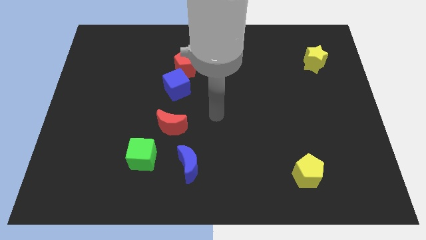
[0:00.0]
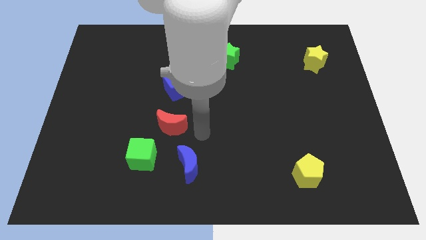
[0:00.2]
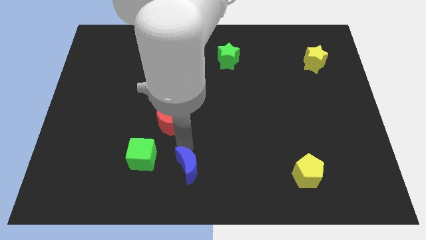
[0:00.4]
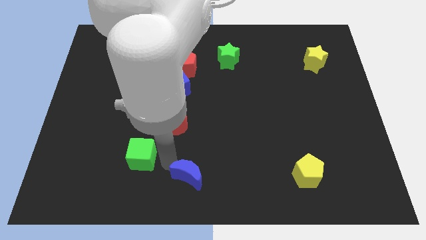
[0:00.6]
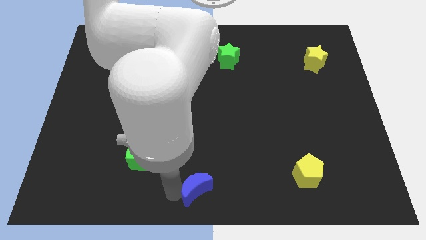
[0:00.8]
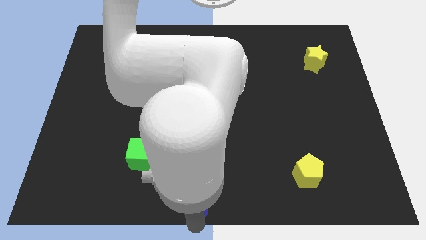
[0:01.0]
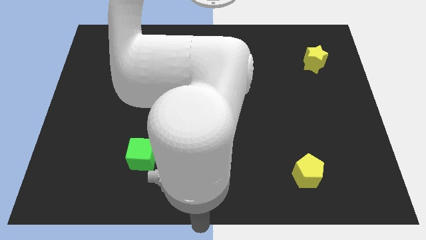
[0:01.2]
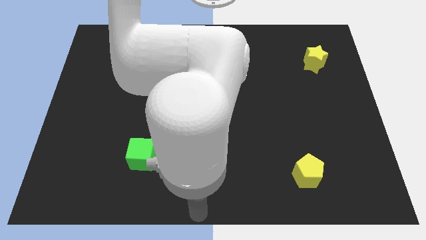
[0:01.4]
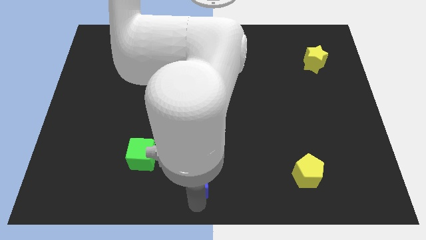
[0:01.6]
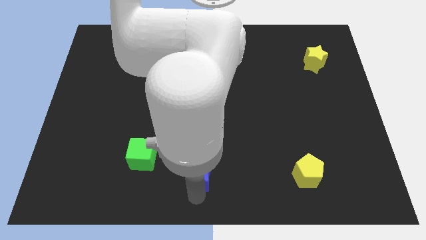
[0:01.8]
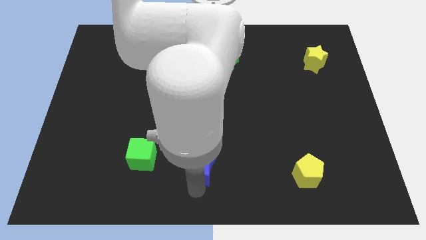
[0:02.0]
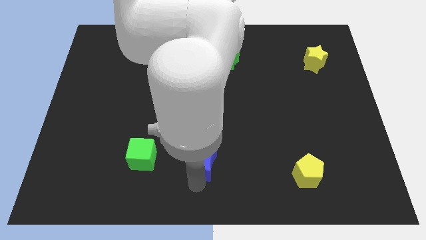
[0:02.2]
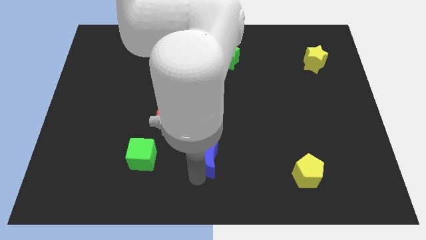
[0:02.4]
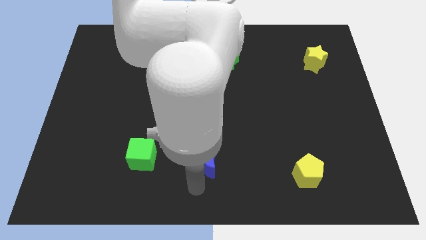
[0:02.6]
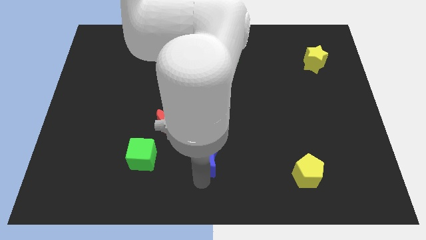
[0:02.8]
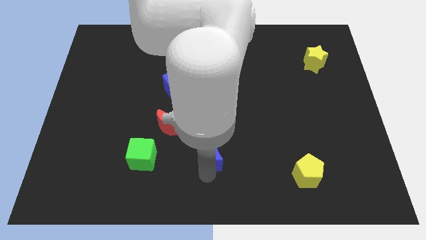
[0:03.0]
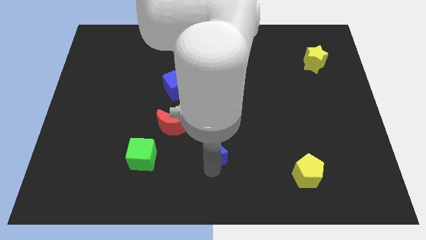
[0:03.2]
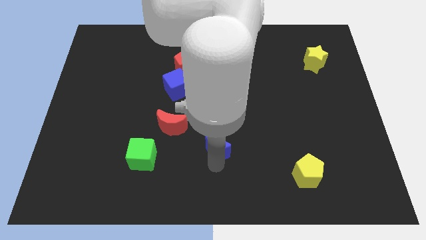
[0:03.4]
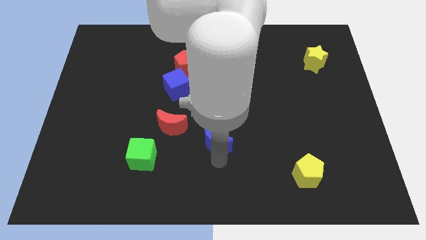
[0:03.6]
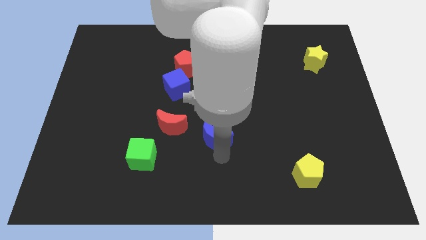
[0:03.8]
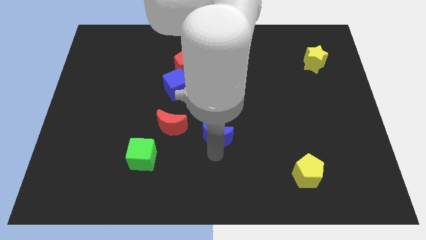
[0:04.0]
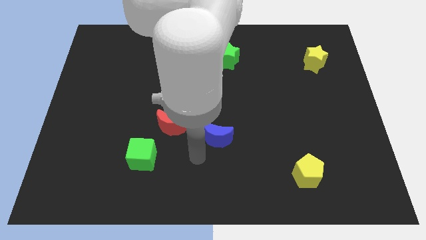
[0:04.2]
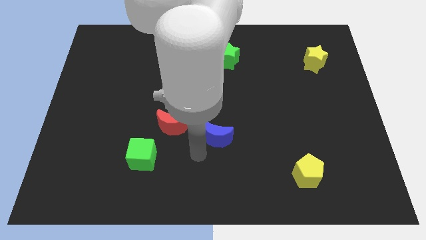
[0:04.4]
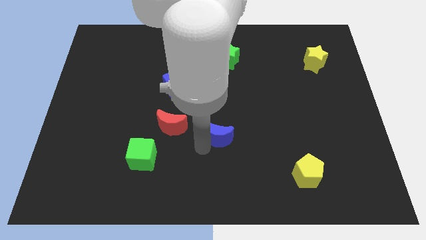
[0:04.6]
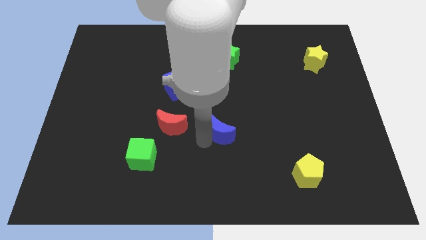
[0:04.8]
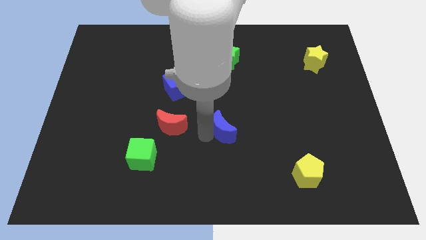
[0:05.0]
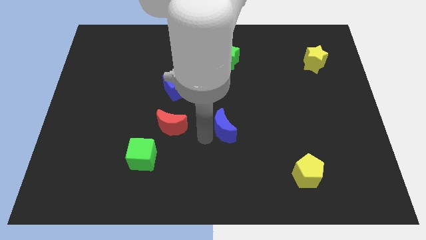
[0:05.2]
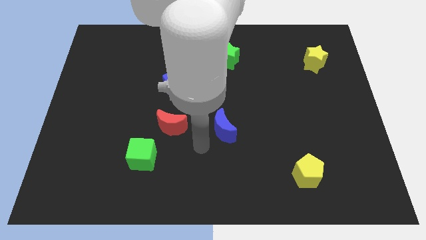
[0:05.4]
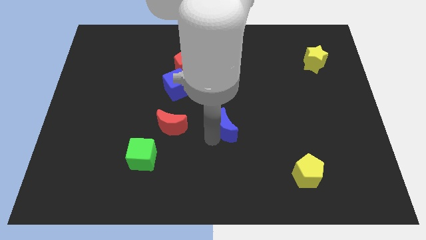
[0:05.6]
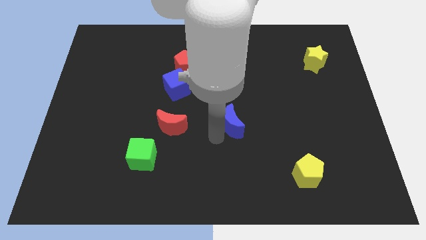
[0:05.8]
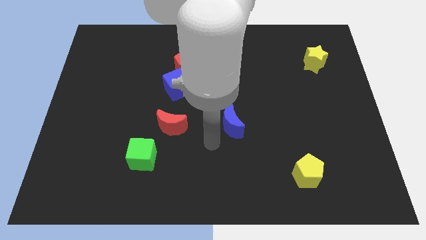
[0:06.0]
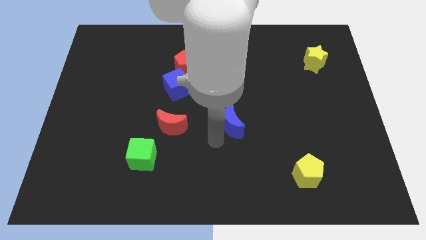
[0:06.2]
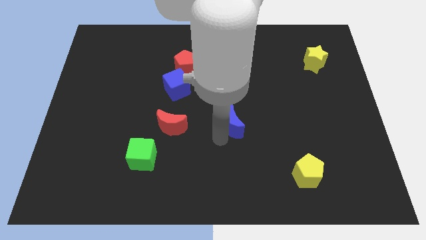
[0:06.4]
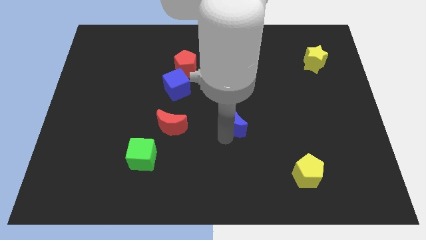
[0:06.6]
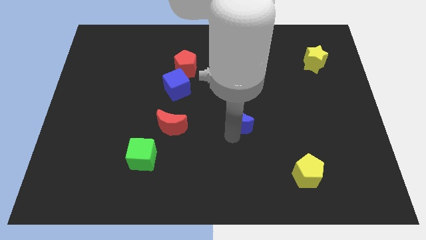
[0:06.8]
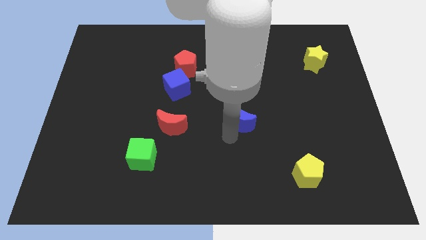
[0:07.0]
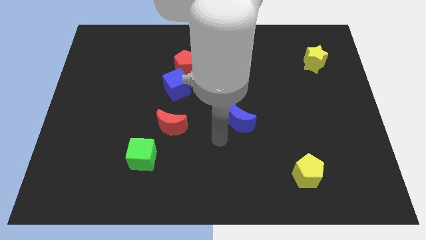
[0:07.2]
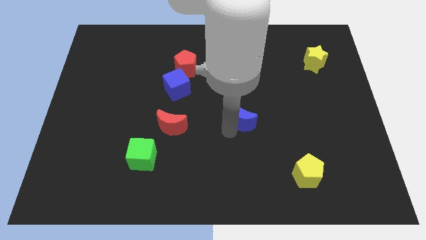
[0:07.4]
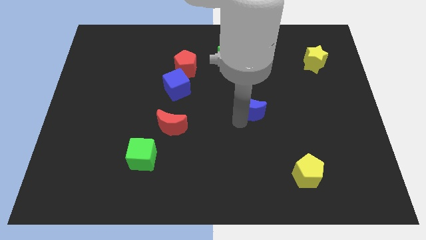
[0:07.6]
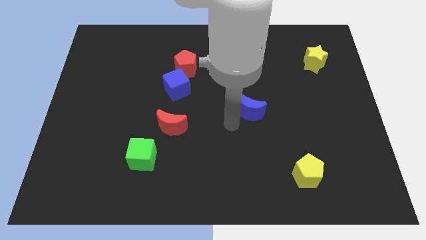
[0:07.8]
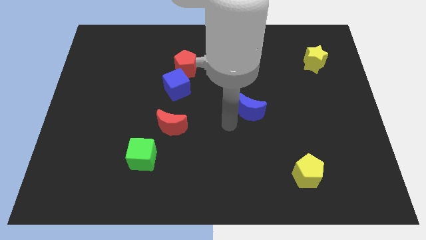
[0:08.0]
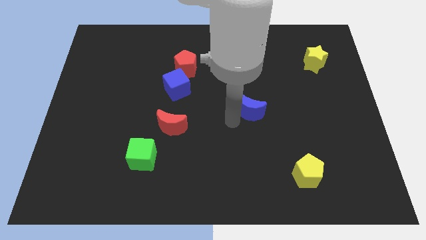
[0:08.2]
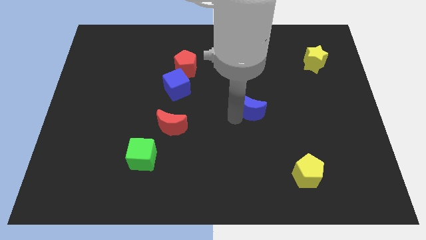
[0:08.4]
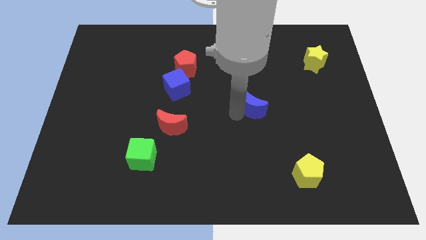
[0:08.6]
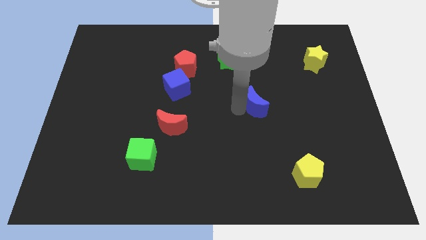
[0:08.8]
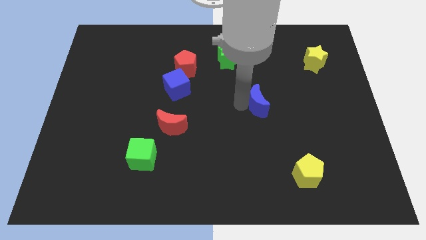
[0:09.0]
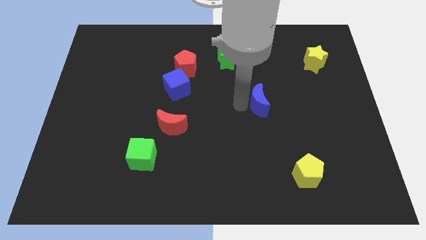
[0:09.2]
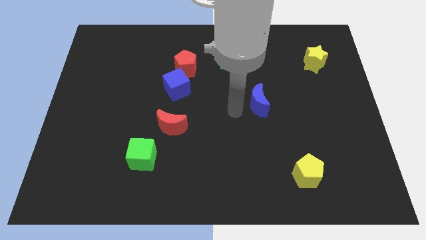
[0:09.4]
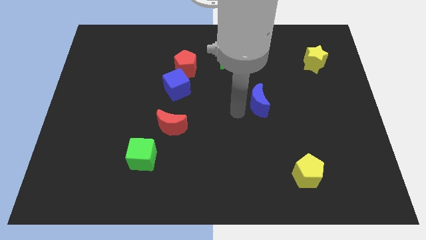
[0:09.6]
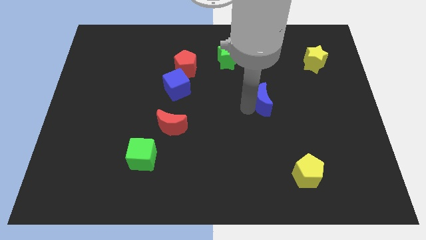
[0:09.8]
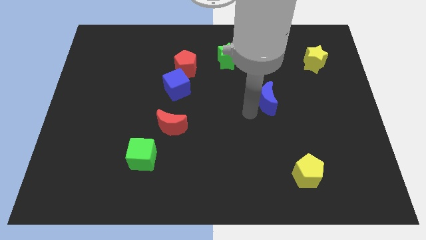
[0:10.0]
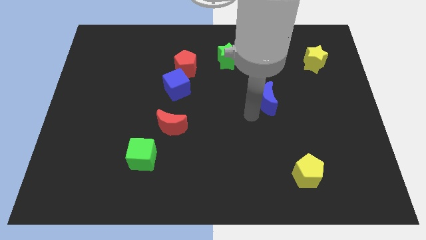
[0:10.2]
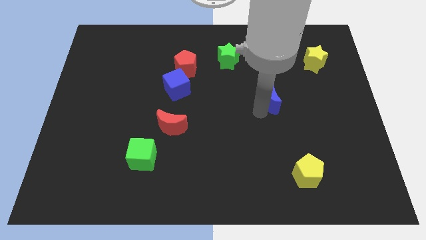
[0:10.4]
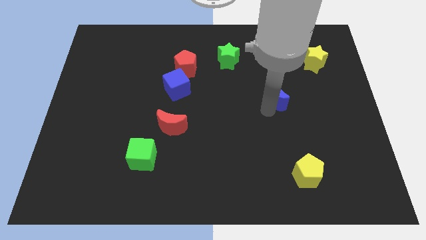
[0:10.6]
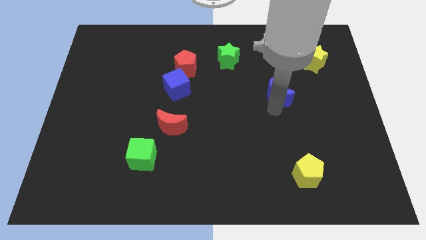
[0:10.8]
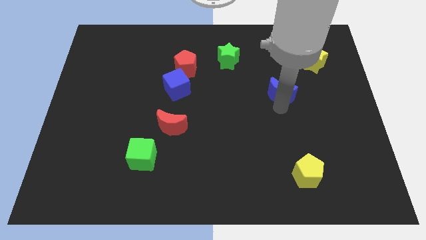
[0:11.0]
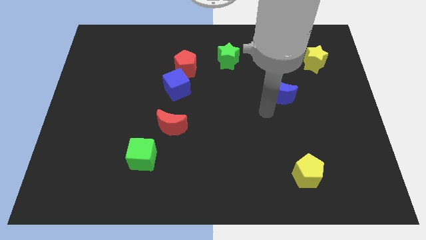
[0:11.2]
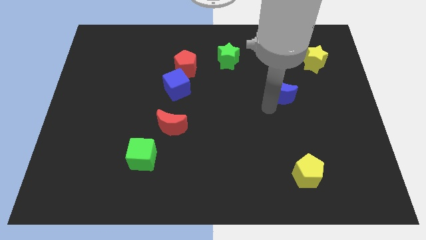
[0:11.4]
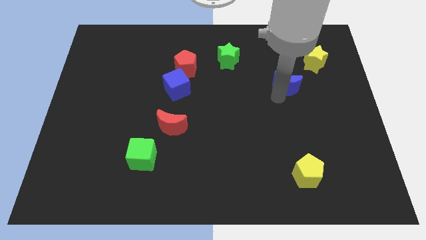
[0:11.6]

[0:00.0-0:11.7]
slide the blue moon to the bottom left side of the yellow star
